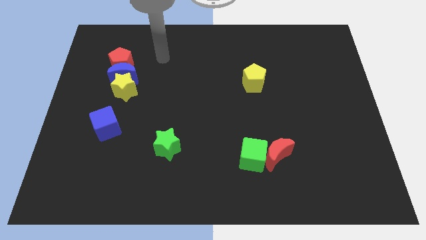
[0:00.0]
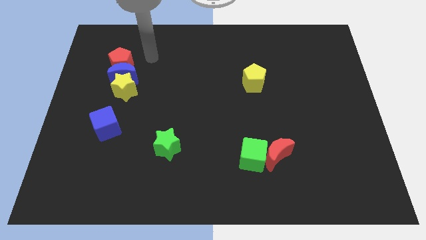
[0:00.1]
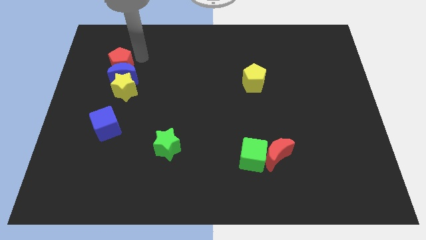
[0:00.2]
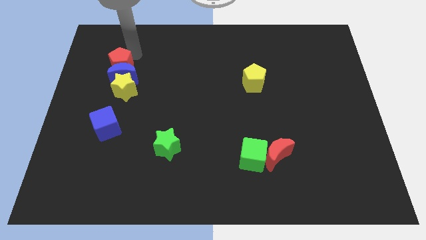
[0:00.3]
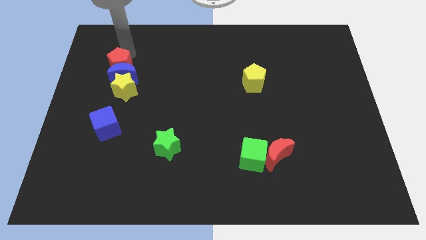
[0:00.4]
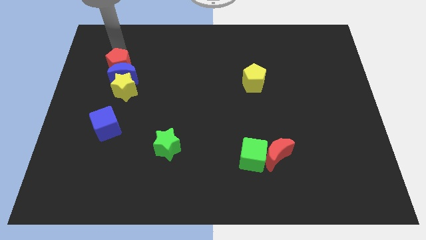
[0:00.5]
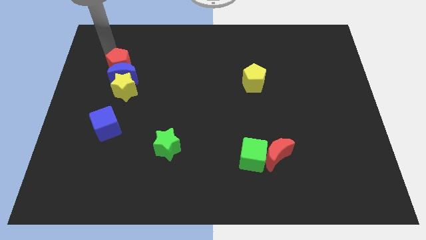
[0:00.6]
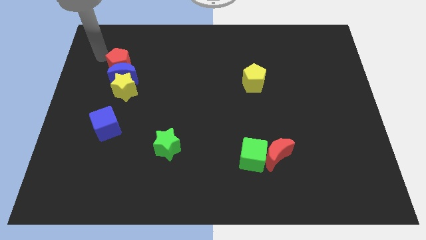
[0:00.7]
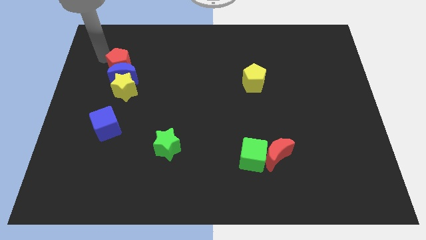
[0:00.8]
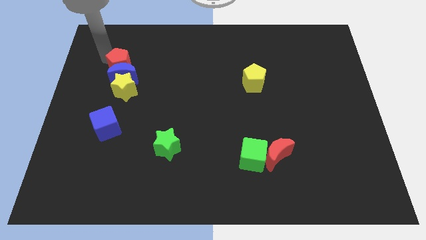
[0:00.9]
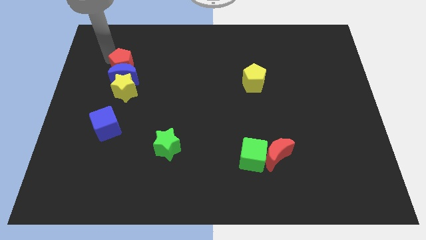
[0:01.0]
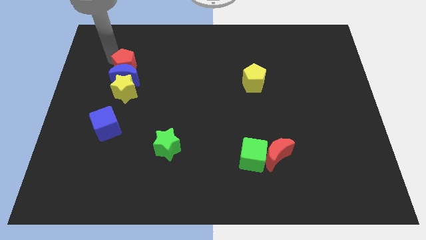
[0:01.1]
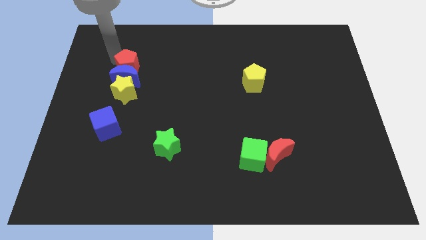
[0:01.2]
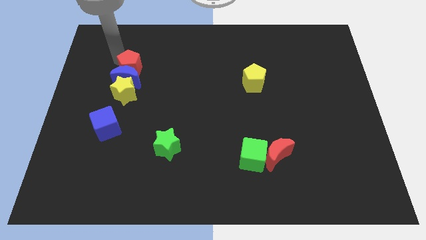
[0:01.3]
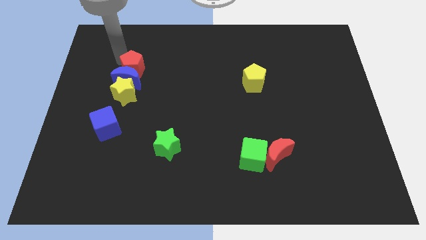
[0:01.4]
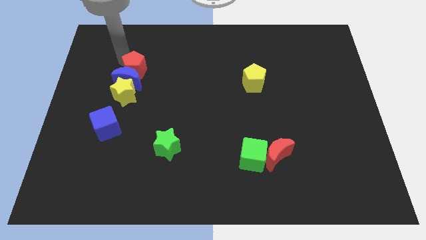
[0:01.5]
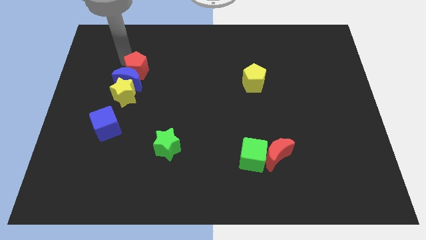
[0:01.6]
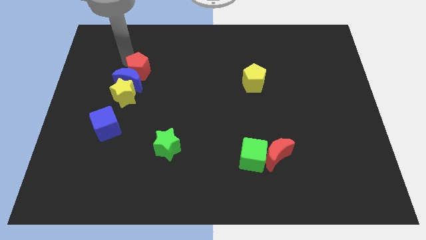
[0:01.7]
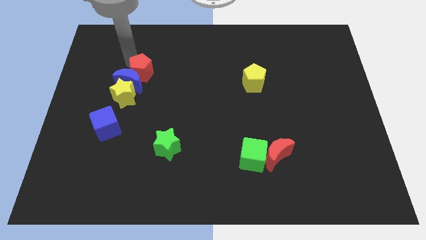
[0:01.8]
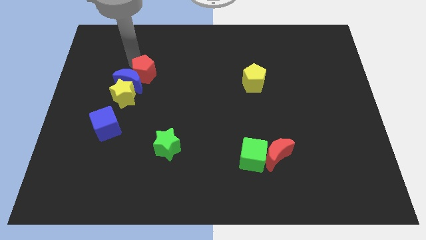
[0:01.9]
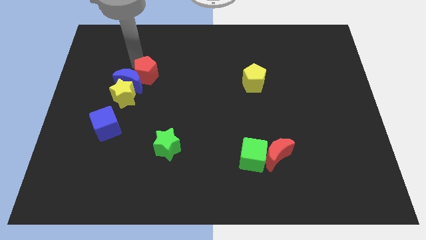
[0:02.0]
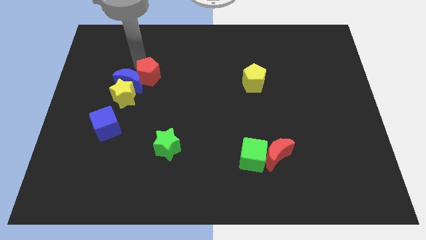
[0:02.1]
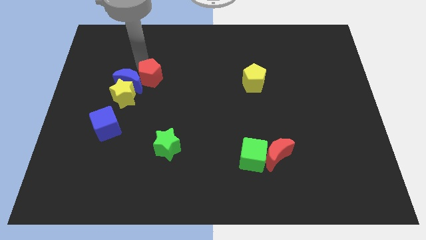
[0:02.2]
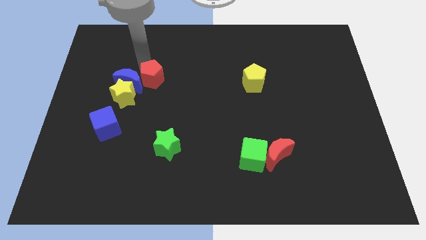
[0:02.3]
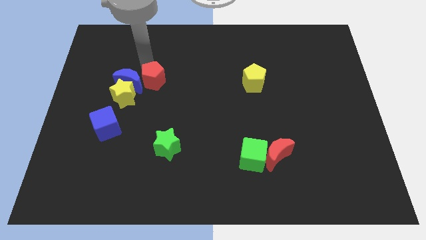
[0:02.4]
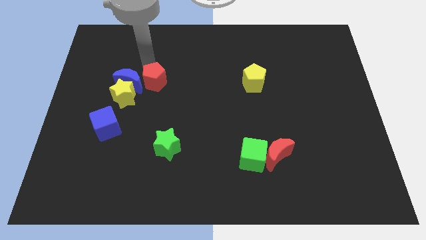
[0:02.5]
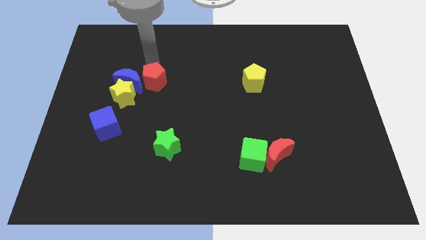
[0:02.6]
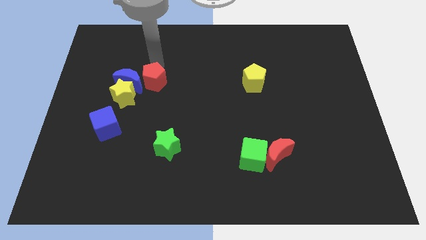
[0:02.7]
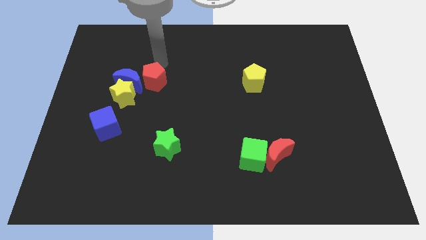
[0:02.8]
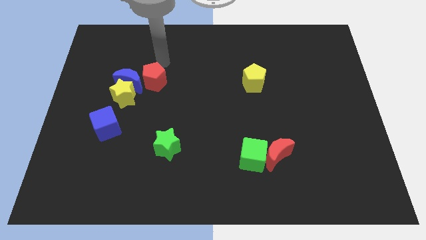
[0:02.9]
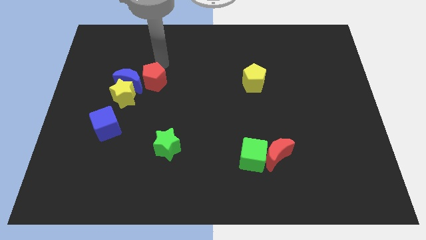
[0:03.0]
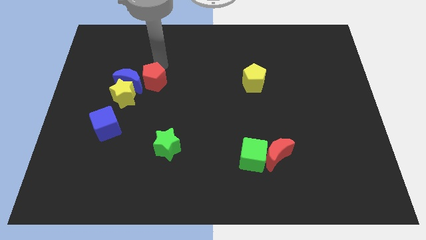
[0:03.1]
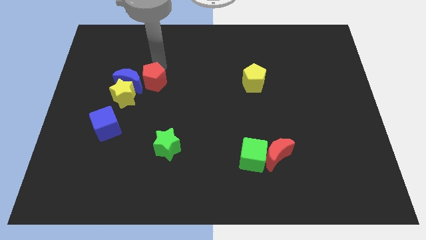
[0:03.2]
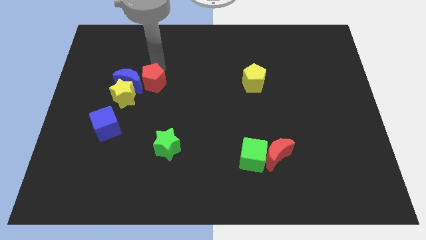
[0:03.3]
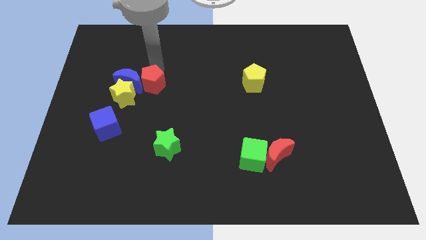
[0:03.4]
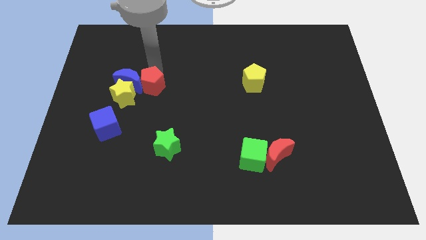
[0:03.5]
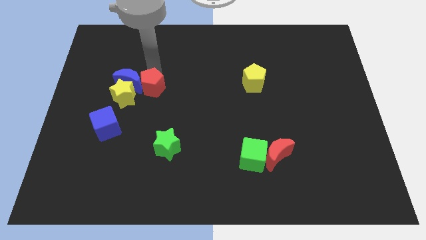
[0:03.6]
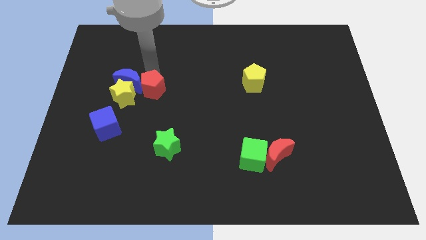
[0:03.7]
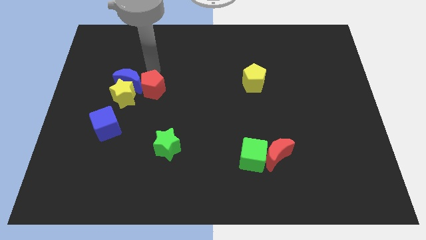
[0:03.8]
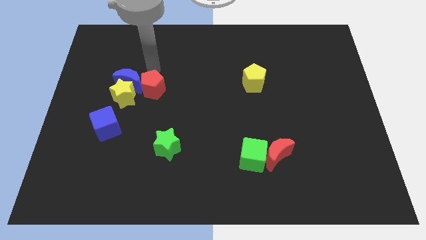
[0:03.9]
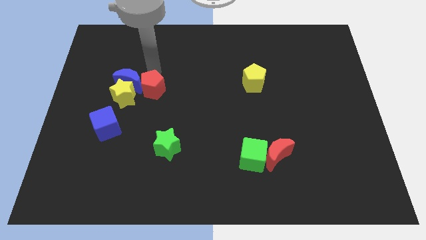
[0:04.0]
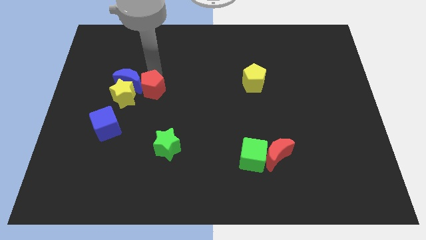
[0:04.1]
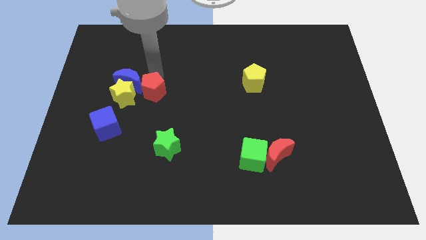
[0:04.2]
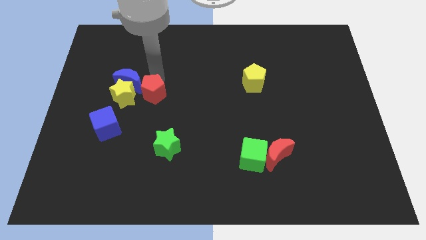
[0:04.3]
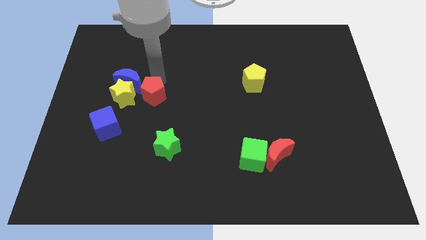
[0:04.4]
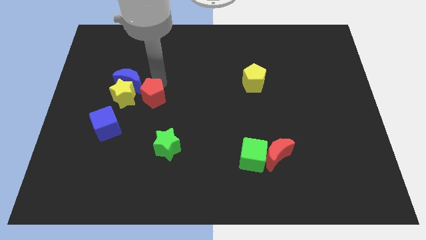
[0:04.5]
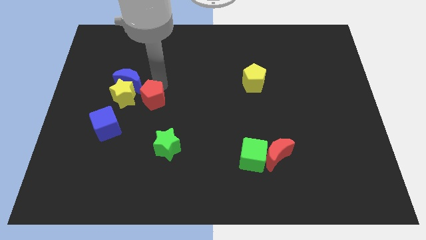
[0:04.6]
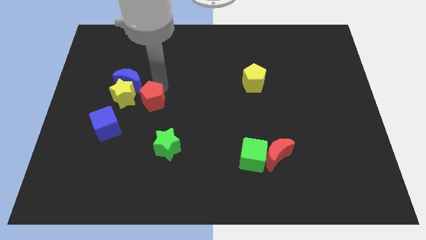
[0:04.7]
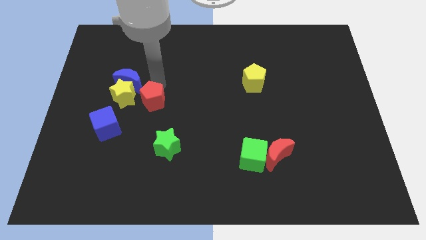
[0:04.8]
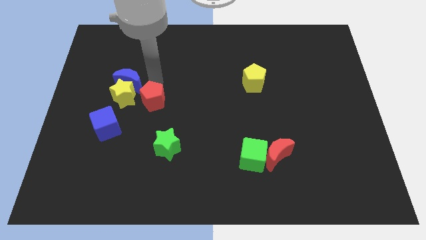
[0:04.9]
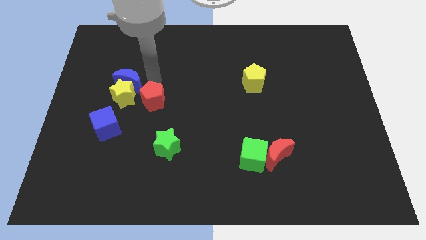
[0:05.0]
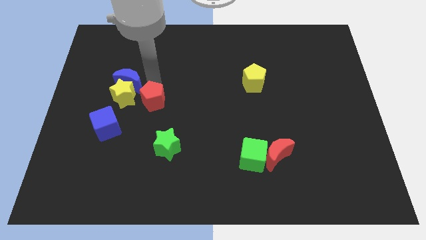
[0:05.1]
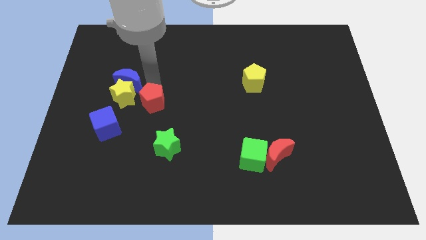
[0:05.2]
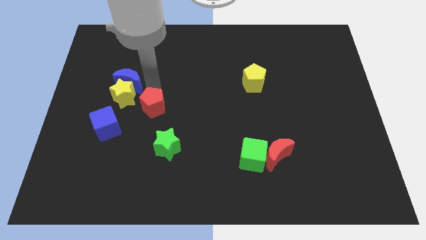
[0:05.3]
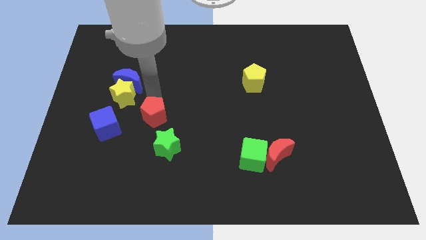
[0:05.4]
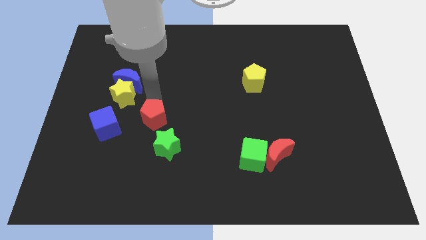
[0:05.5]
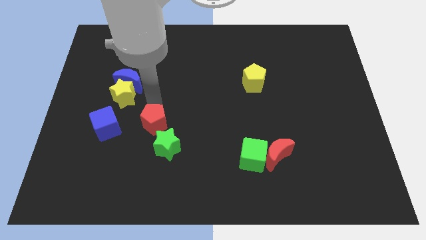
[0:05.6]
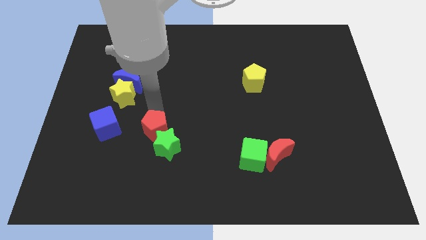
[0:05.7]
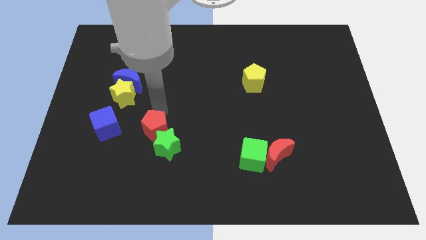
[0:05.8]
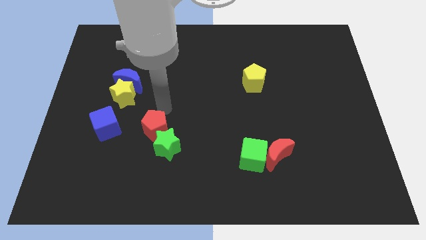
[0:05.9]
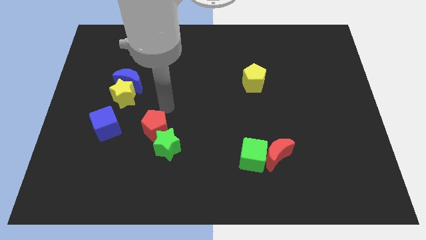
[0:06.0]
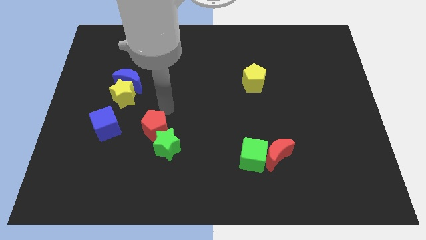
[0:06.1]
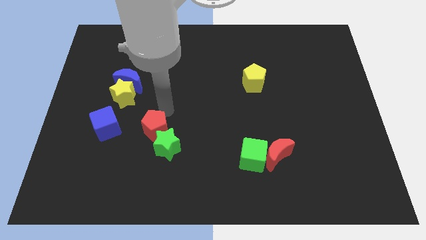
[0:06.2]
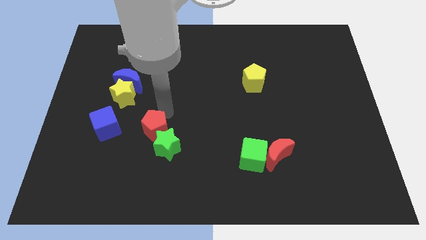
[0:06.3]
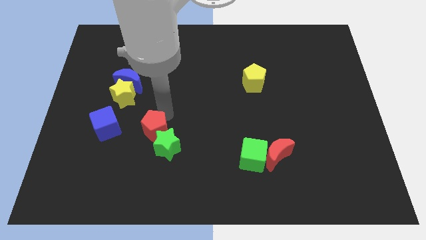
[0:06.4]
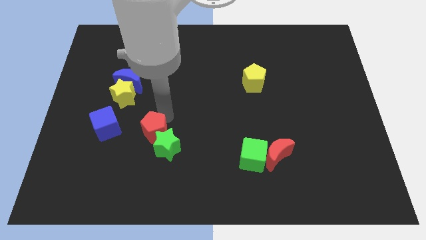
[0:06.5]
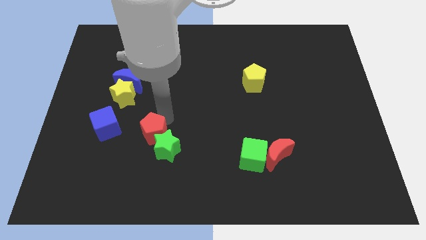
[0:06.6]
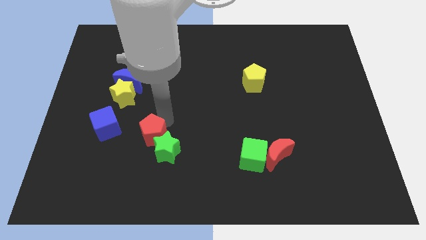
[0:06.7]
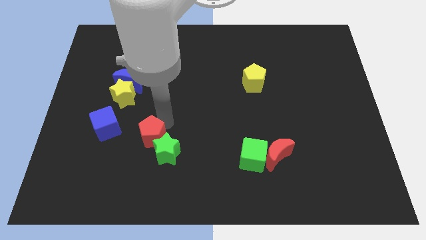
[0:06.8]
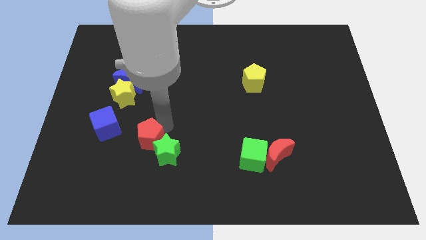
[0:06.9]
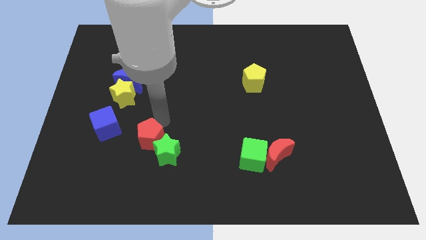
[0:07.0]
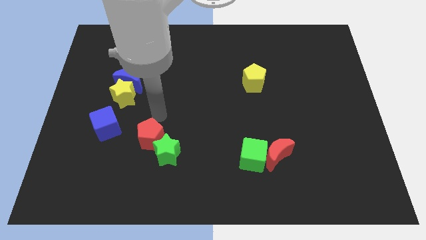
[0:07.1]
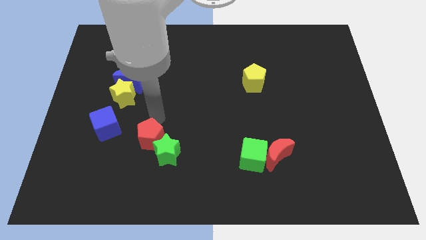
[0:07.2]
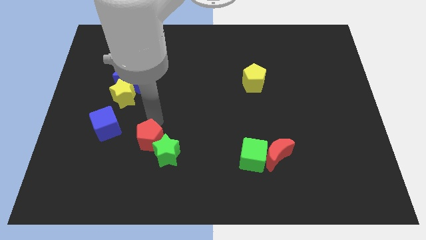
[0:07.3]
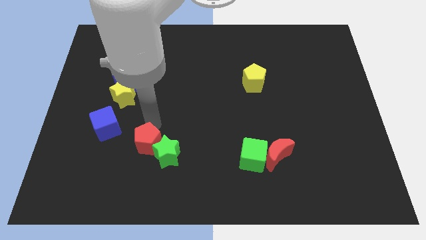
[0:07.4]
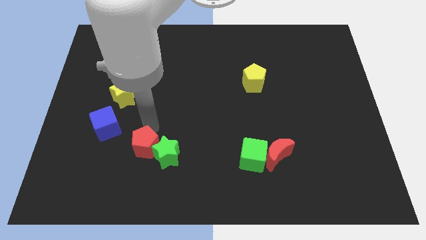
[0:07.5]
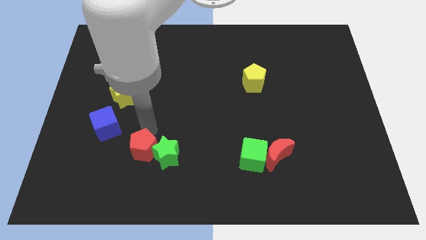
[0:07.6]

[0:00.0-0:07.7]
slide the red pentagon to the bottom left of the green star
